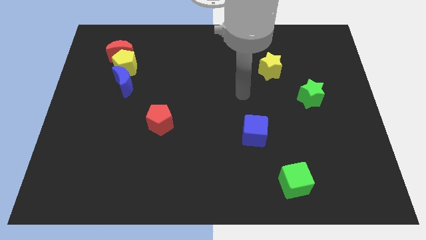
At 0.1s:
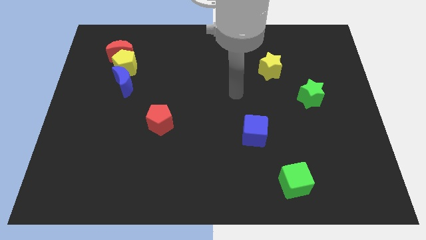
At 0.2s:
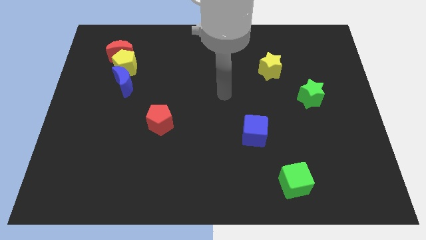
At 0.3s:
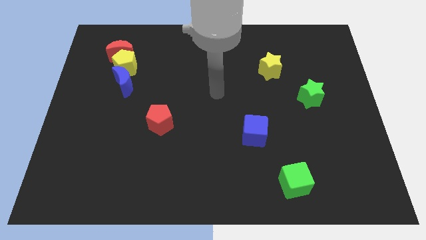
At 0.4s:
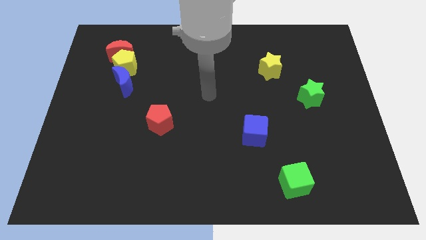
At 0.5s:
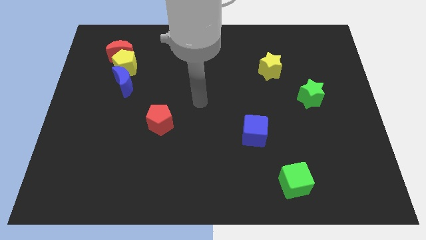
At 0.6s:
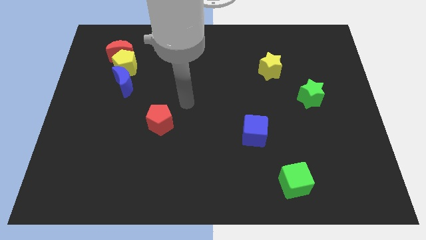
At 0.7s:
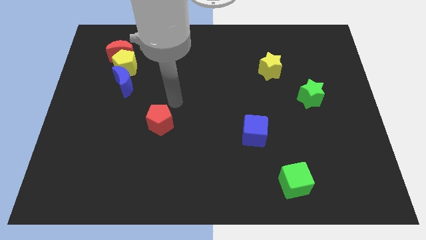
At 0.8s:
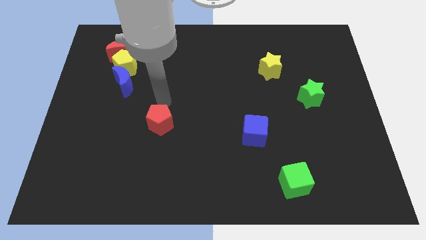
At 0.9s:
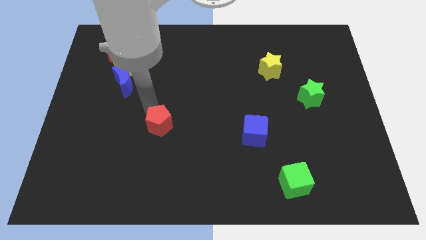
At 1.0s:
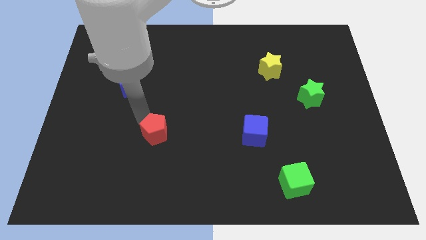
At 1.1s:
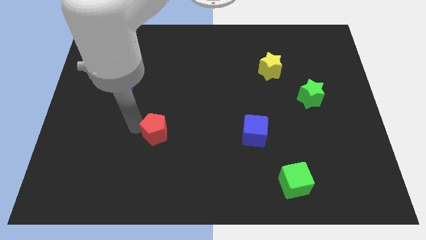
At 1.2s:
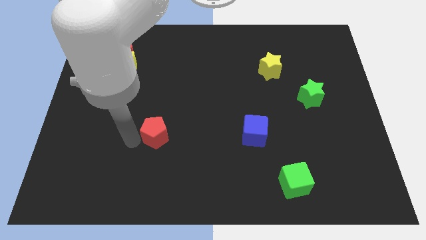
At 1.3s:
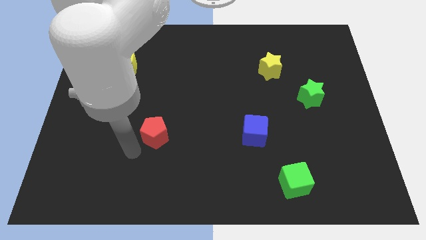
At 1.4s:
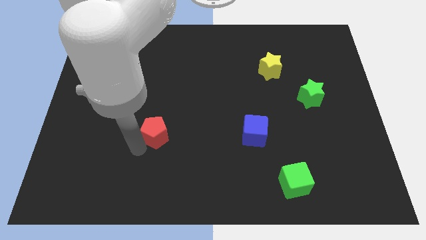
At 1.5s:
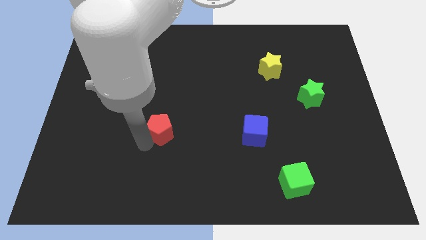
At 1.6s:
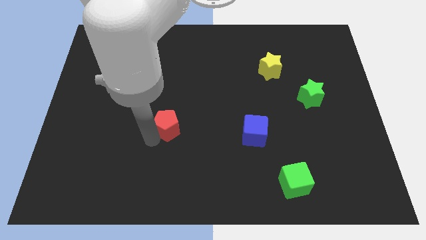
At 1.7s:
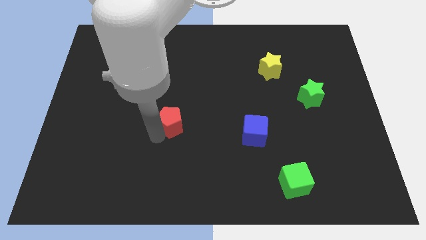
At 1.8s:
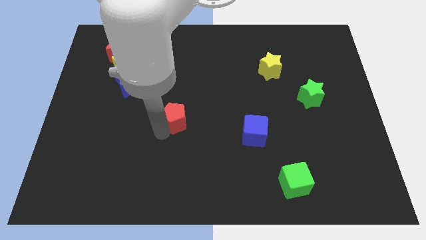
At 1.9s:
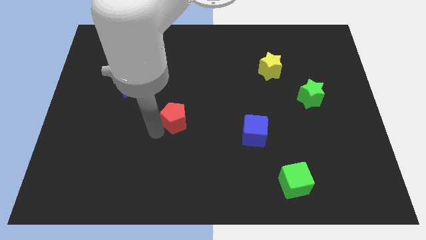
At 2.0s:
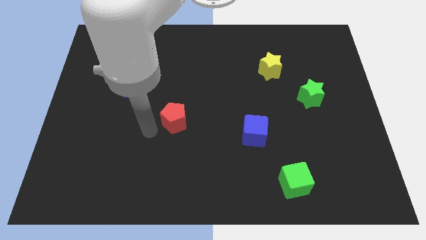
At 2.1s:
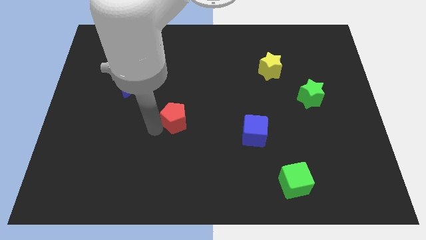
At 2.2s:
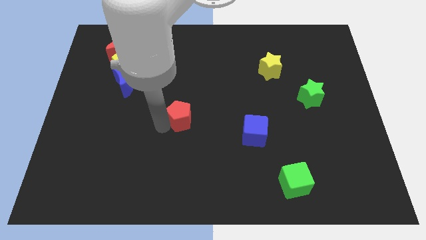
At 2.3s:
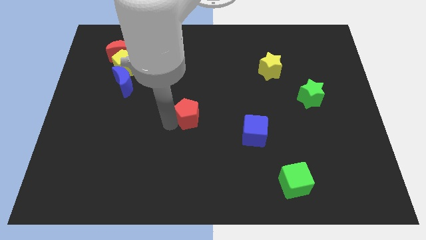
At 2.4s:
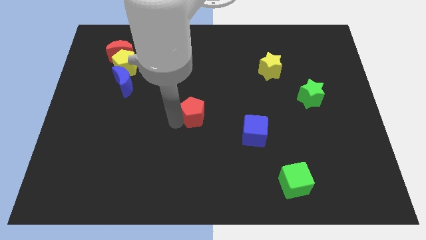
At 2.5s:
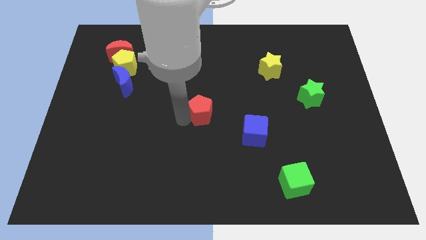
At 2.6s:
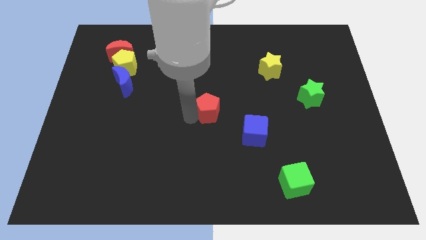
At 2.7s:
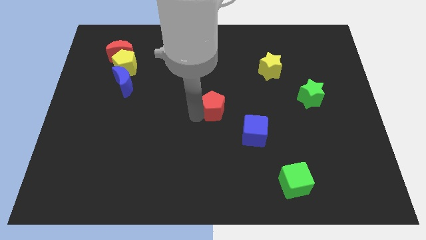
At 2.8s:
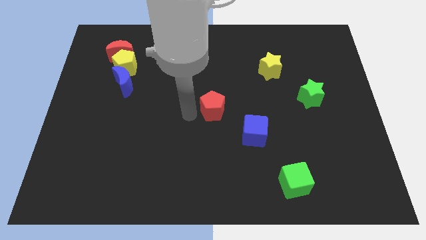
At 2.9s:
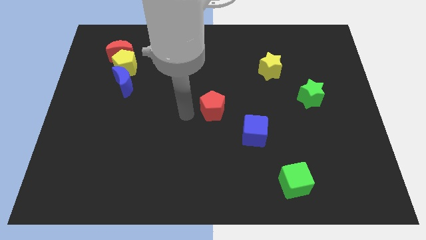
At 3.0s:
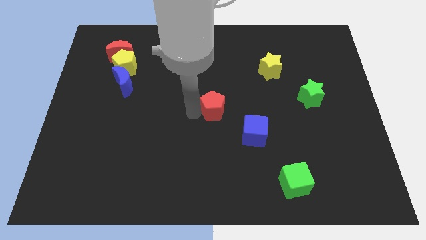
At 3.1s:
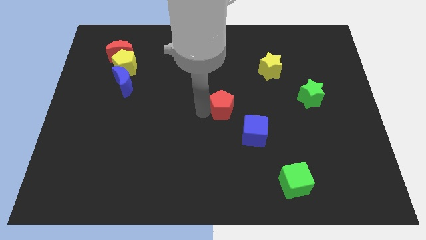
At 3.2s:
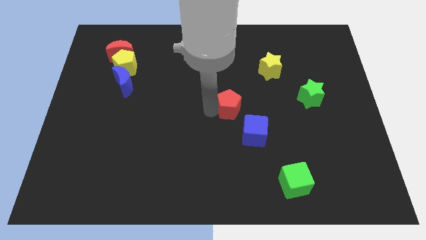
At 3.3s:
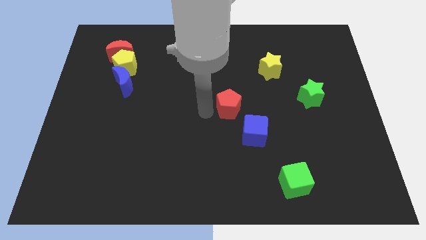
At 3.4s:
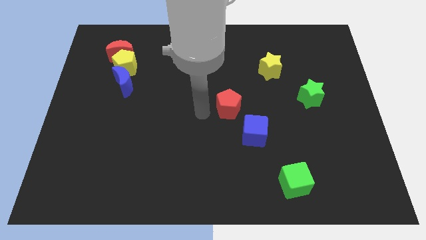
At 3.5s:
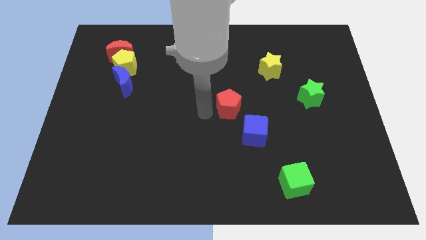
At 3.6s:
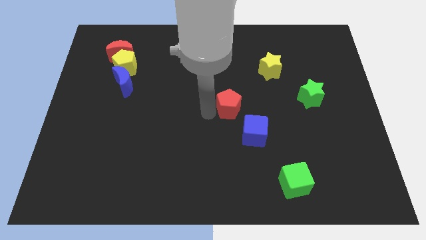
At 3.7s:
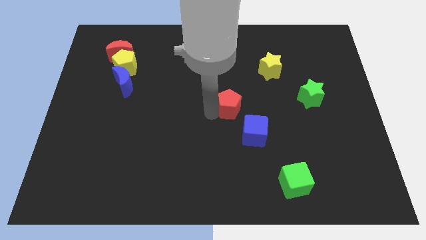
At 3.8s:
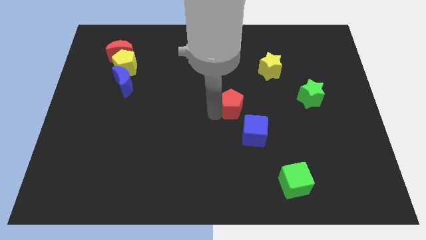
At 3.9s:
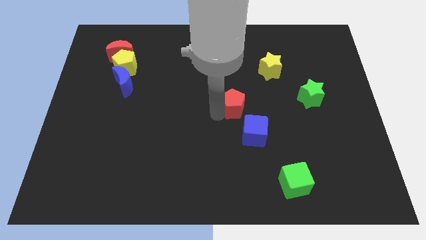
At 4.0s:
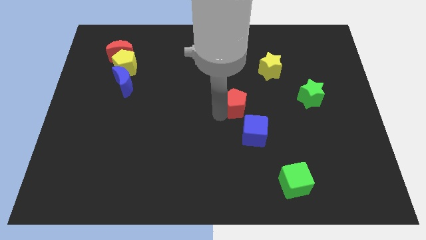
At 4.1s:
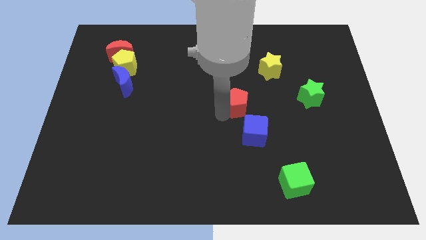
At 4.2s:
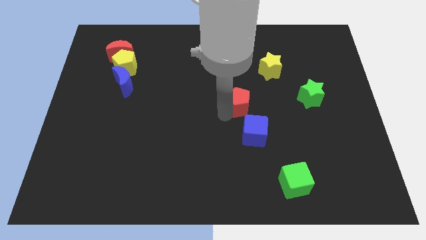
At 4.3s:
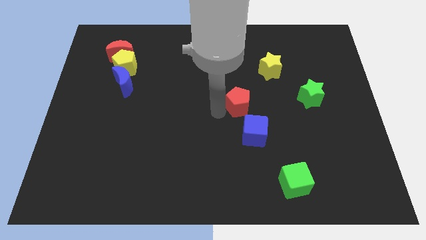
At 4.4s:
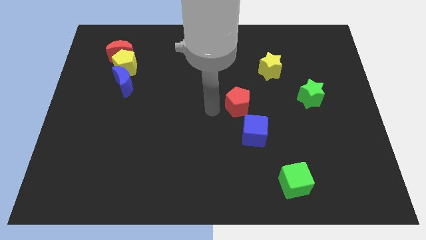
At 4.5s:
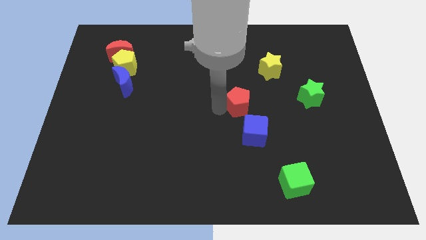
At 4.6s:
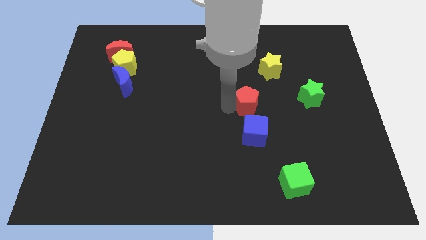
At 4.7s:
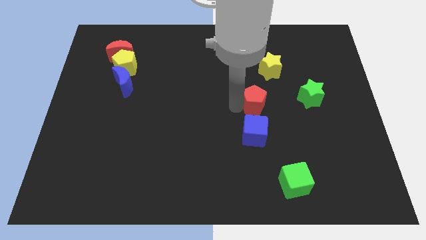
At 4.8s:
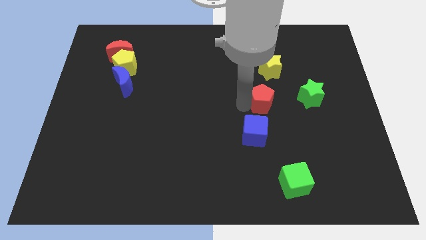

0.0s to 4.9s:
push the red pentagon to the bottom side of the yellow star

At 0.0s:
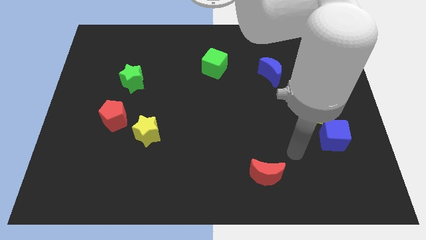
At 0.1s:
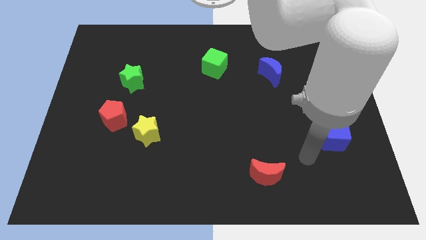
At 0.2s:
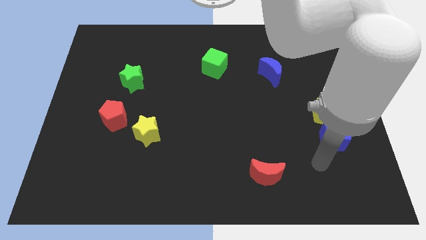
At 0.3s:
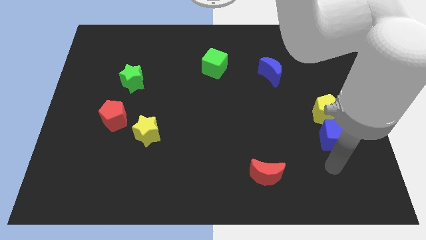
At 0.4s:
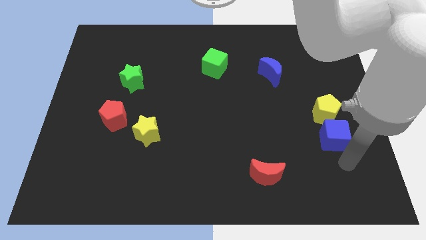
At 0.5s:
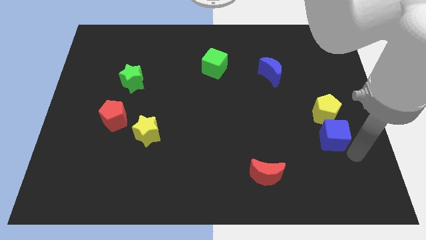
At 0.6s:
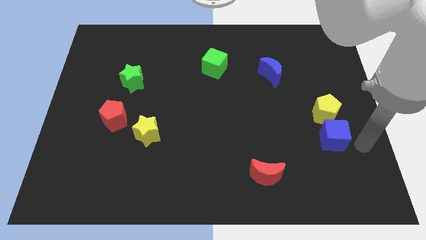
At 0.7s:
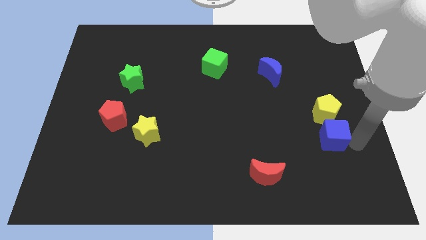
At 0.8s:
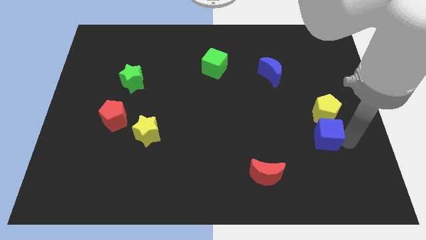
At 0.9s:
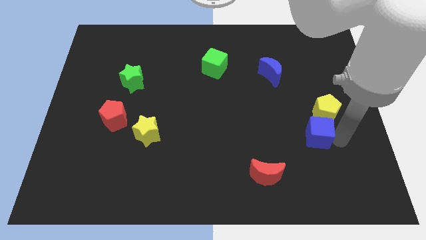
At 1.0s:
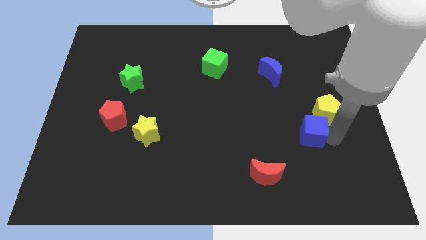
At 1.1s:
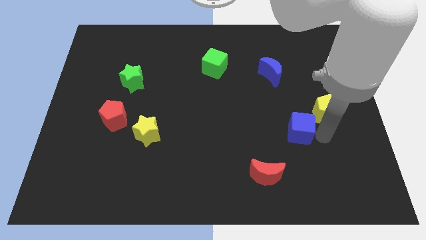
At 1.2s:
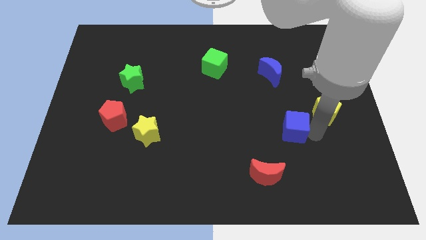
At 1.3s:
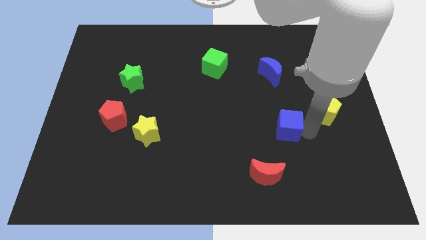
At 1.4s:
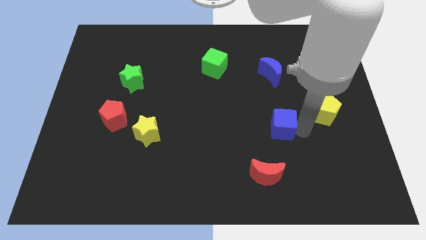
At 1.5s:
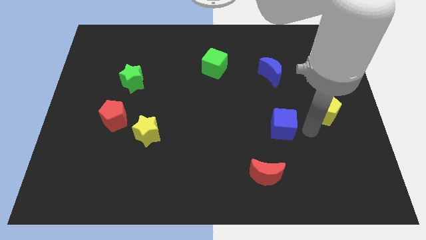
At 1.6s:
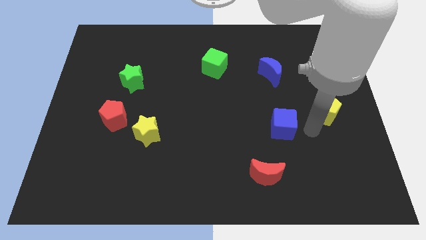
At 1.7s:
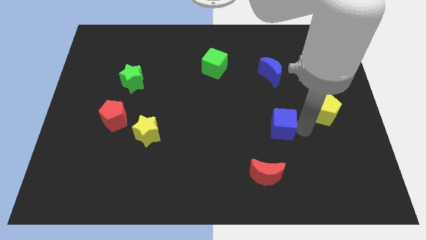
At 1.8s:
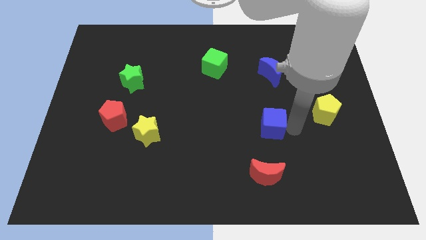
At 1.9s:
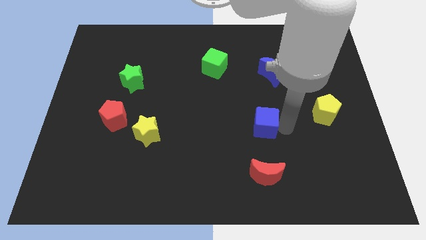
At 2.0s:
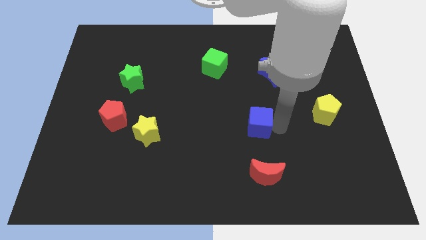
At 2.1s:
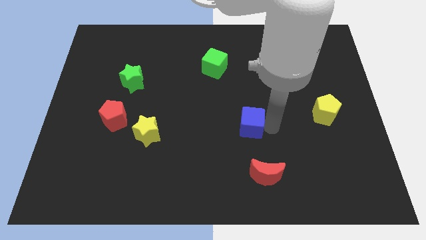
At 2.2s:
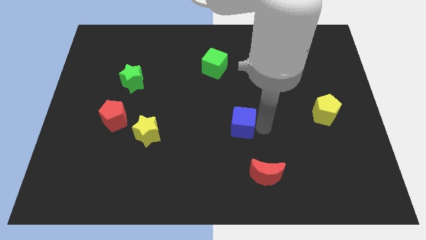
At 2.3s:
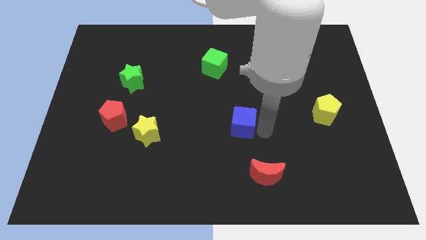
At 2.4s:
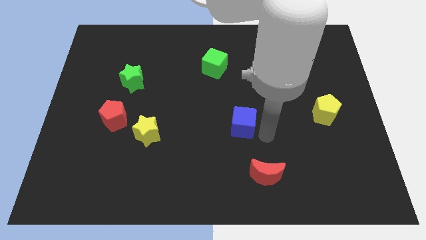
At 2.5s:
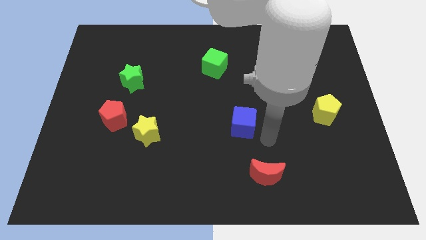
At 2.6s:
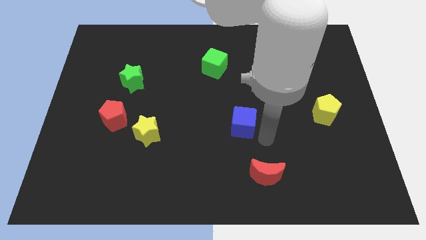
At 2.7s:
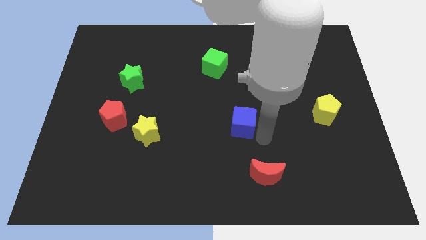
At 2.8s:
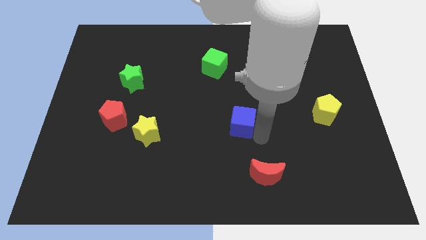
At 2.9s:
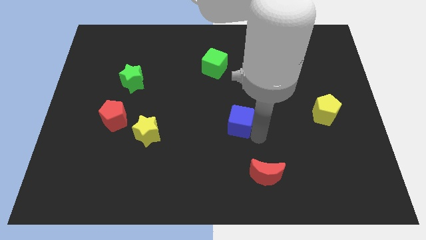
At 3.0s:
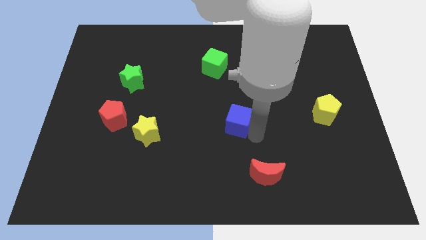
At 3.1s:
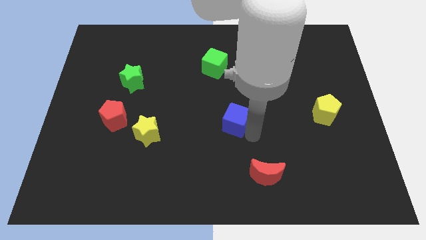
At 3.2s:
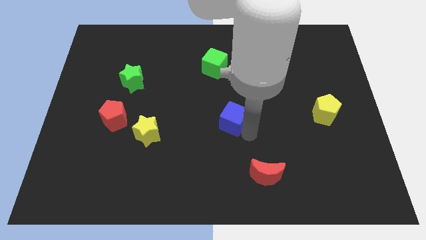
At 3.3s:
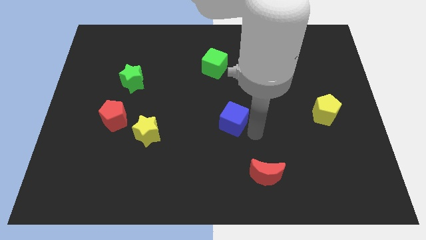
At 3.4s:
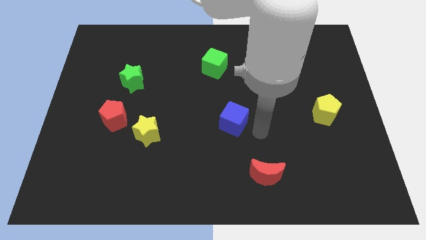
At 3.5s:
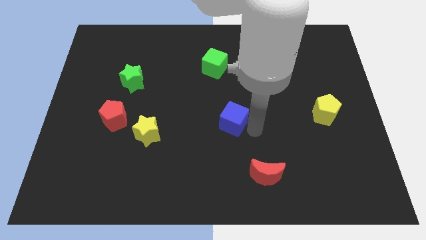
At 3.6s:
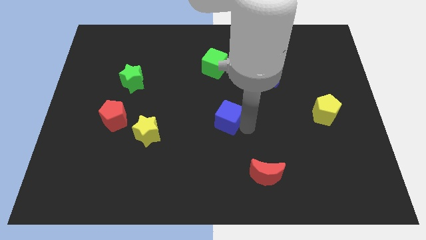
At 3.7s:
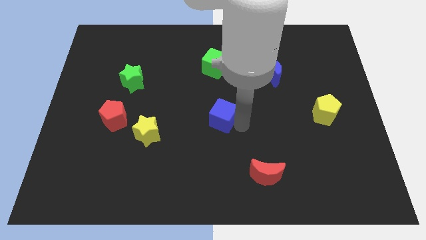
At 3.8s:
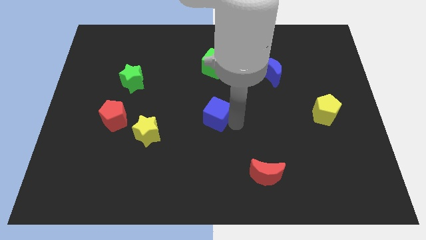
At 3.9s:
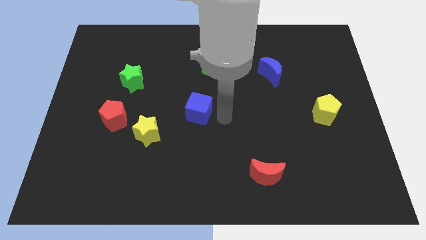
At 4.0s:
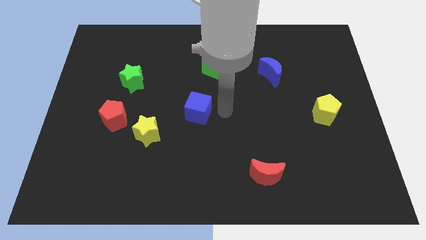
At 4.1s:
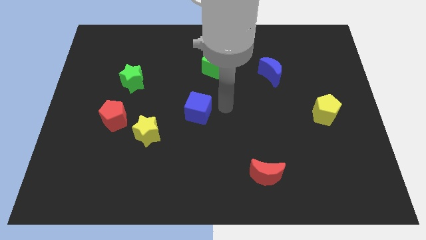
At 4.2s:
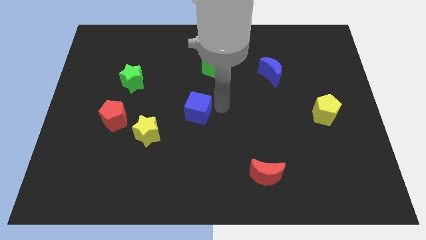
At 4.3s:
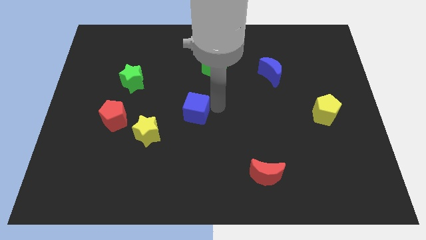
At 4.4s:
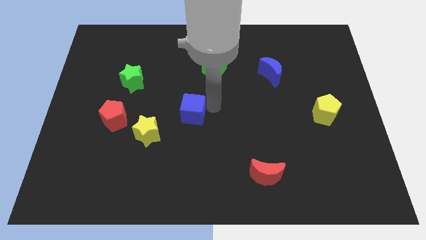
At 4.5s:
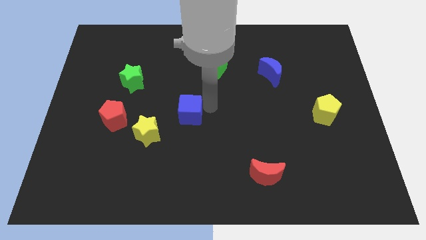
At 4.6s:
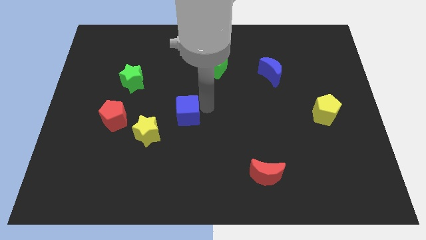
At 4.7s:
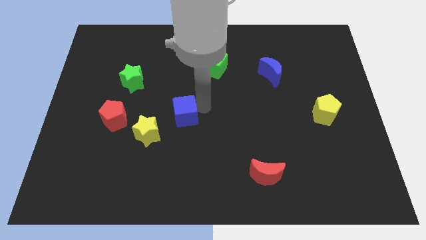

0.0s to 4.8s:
push the blue cube just right of the red pentagon
